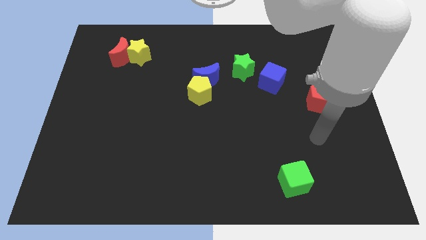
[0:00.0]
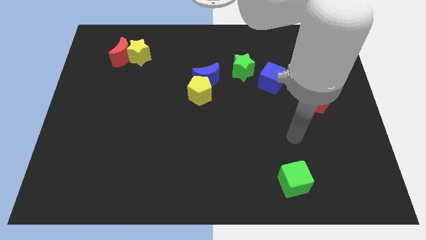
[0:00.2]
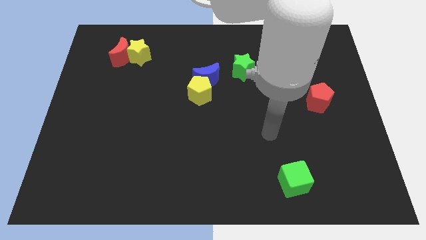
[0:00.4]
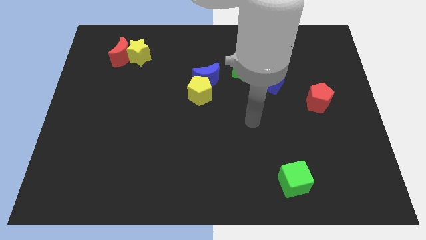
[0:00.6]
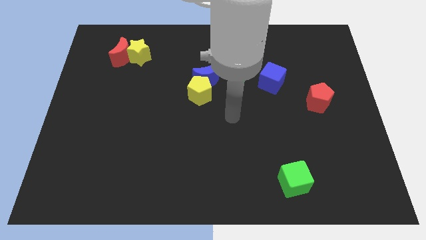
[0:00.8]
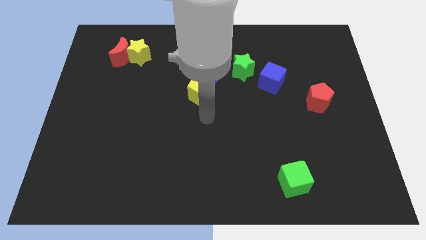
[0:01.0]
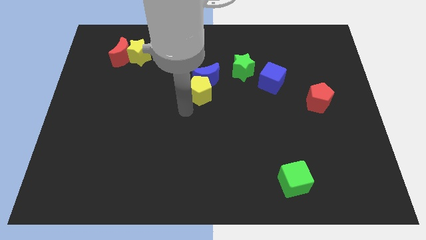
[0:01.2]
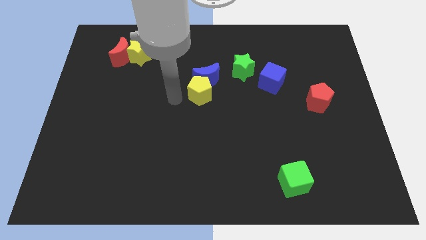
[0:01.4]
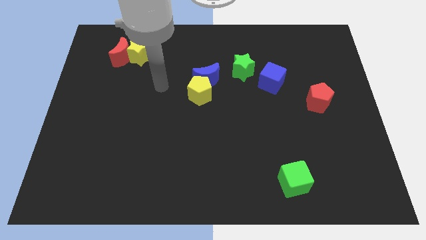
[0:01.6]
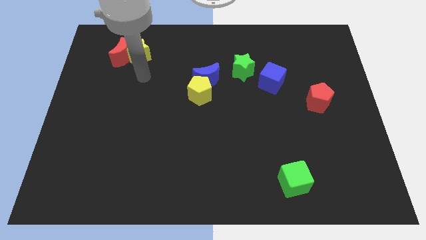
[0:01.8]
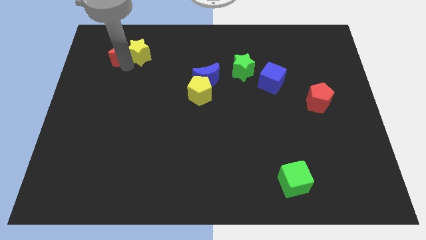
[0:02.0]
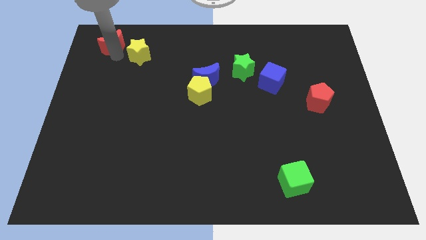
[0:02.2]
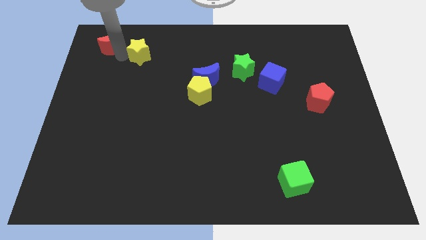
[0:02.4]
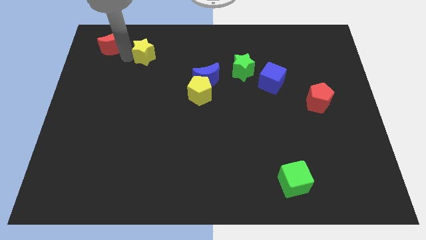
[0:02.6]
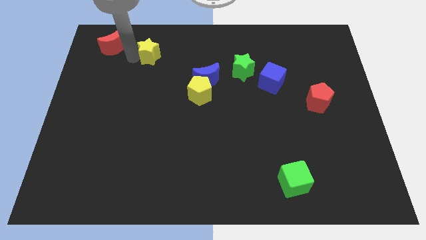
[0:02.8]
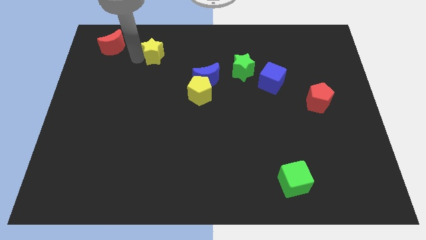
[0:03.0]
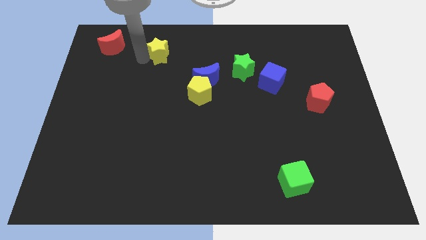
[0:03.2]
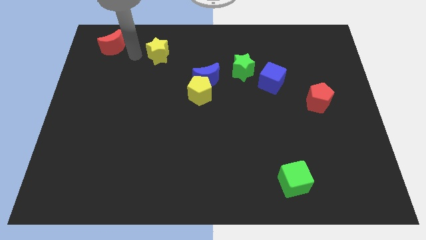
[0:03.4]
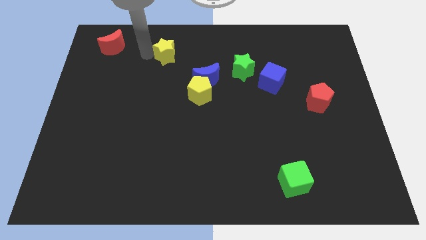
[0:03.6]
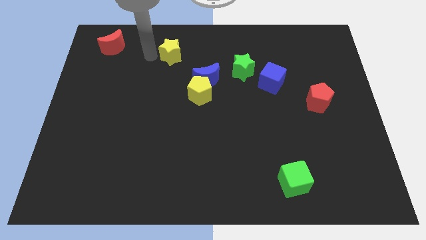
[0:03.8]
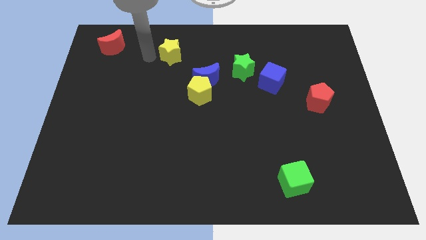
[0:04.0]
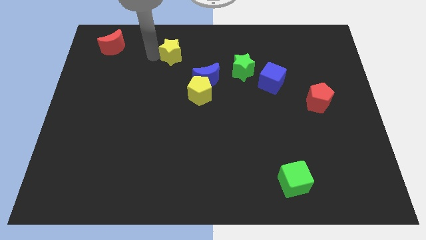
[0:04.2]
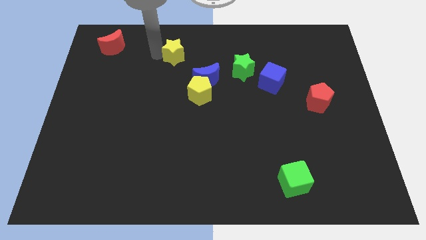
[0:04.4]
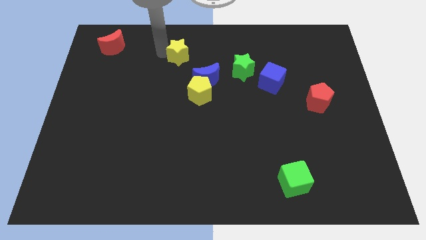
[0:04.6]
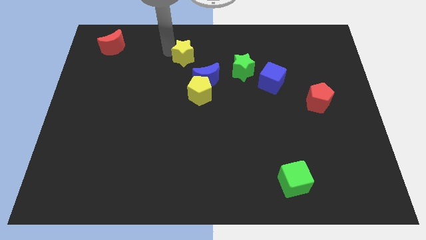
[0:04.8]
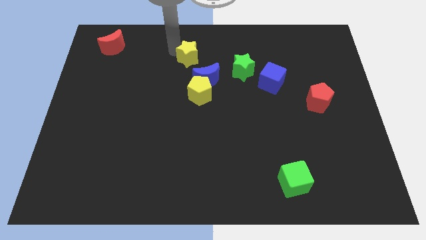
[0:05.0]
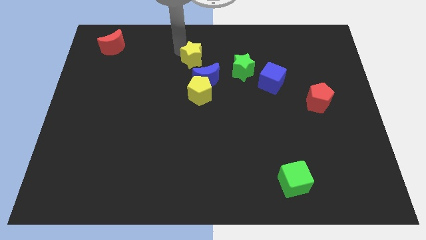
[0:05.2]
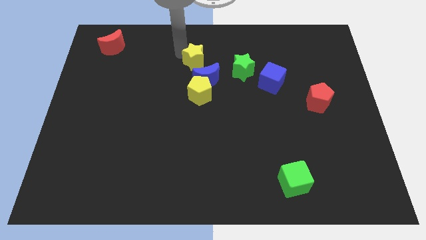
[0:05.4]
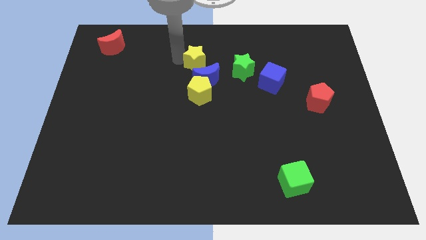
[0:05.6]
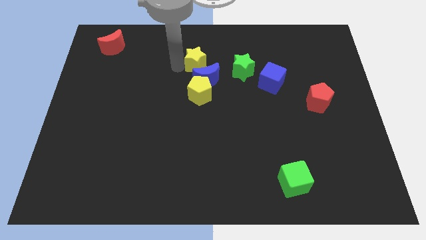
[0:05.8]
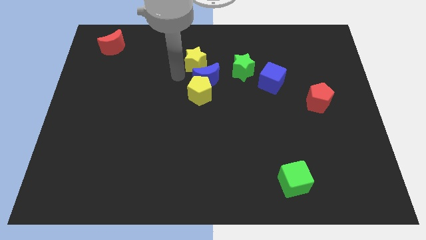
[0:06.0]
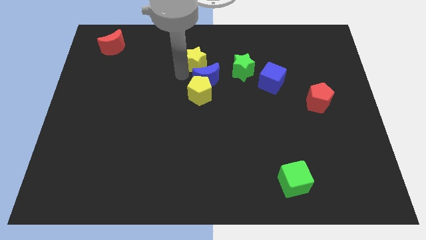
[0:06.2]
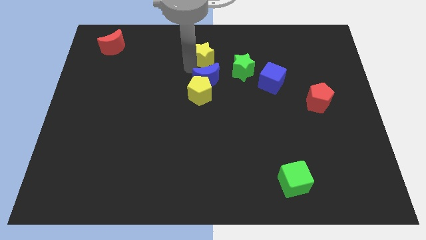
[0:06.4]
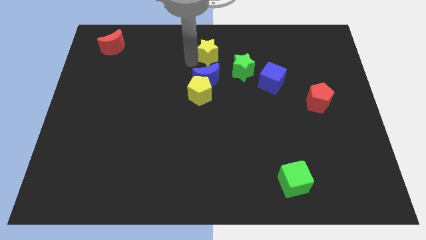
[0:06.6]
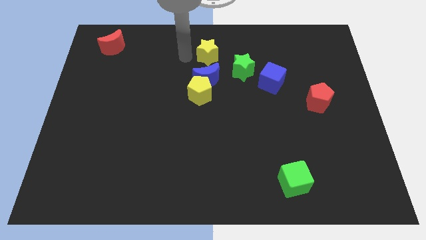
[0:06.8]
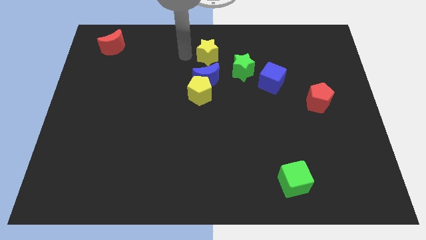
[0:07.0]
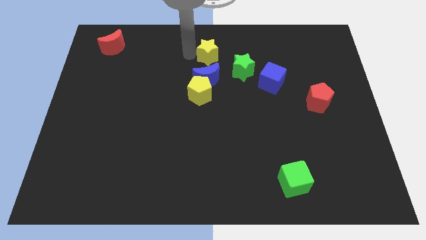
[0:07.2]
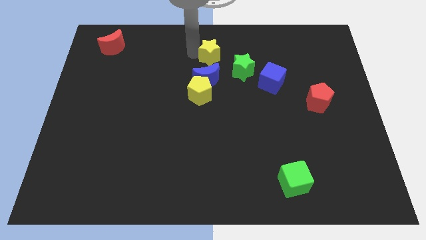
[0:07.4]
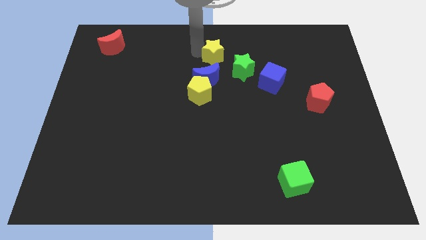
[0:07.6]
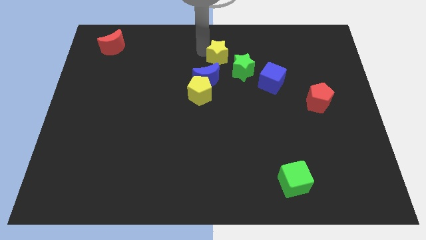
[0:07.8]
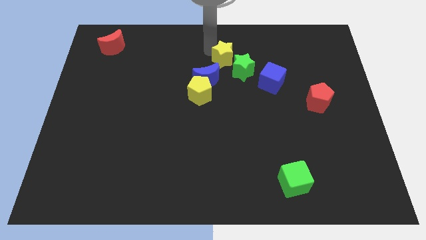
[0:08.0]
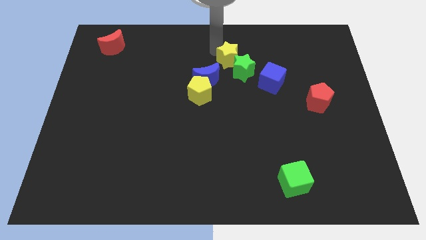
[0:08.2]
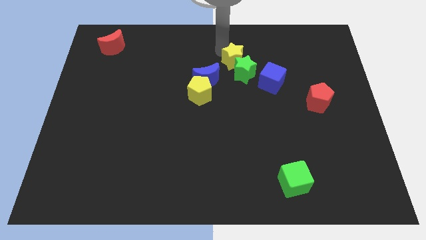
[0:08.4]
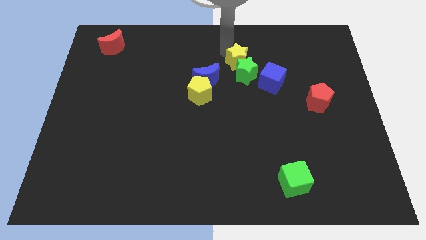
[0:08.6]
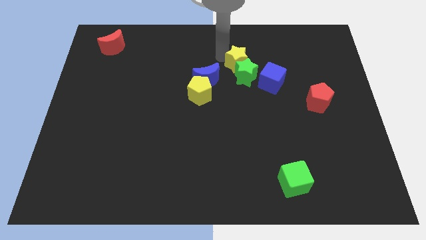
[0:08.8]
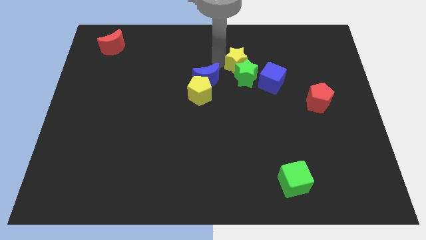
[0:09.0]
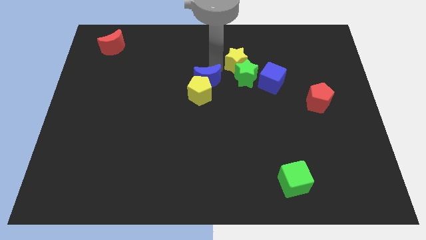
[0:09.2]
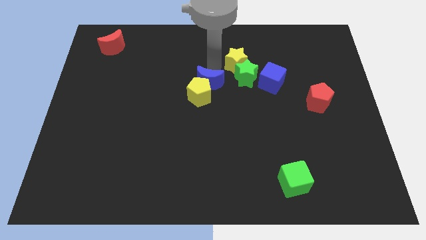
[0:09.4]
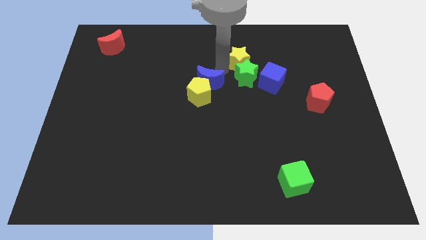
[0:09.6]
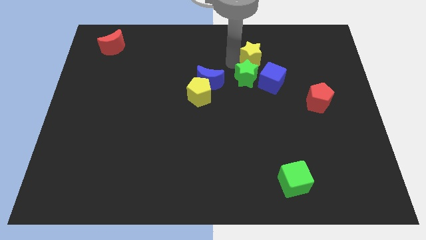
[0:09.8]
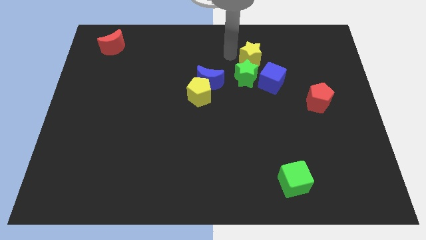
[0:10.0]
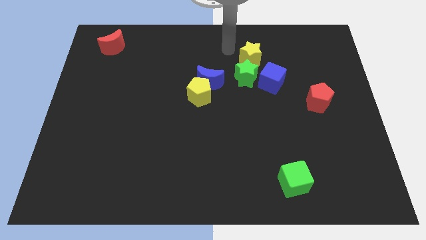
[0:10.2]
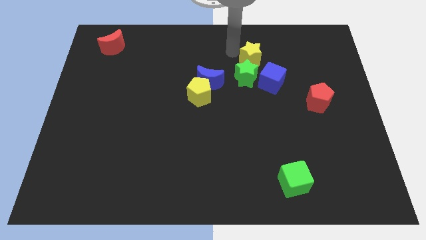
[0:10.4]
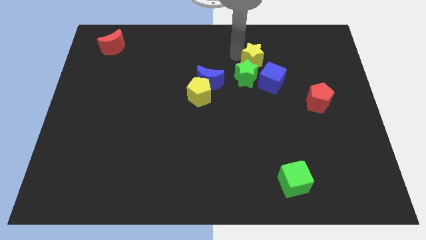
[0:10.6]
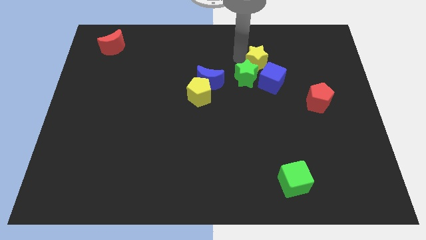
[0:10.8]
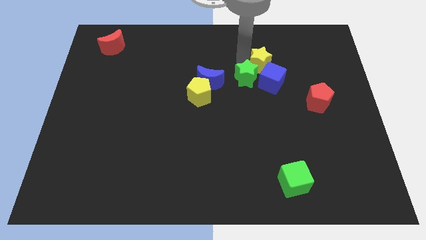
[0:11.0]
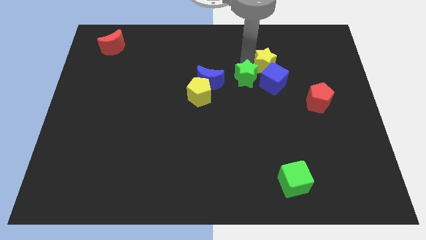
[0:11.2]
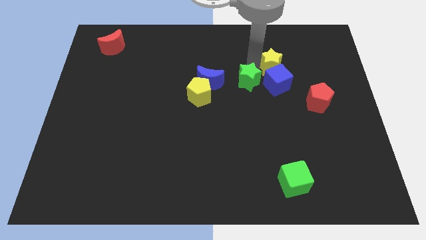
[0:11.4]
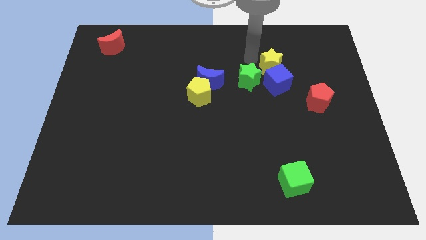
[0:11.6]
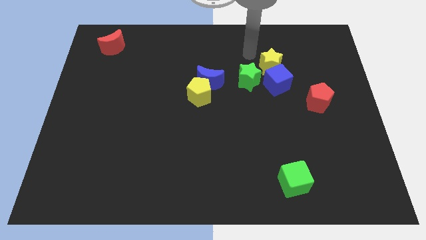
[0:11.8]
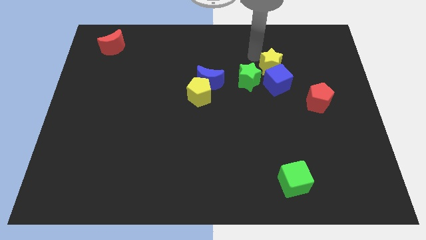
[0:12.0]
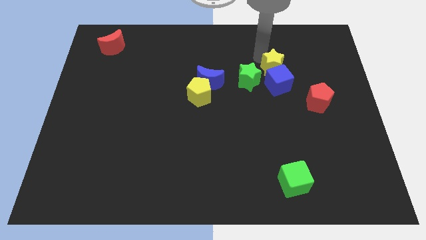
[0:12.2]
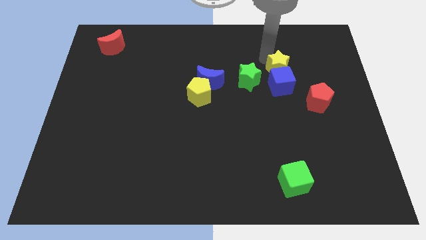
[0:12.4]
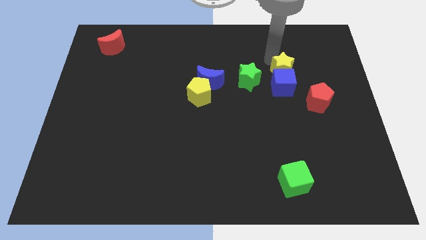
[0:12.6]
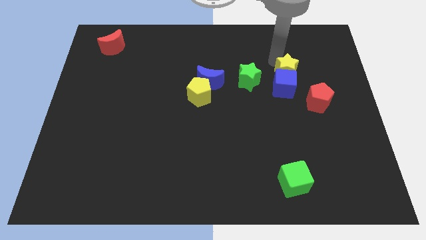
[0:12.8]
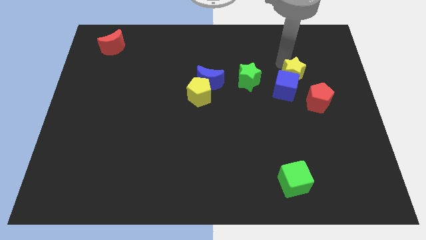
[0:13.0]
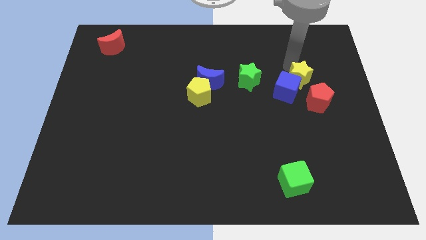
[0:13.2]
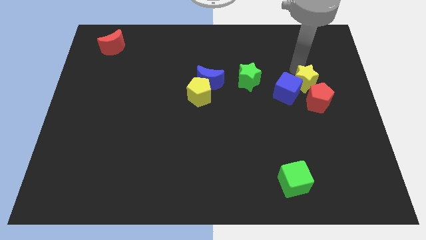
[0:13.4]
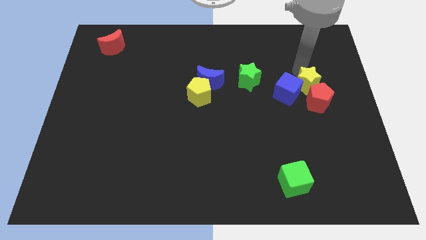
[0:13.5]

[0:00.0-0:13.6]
put the yellow star close to the red pentagon
